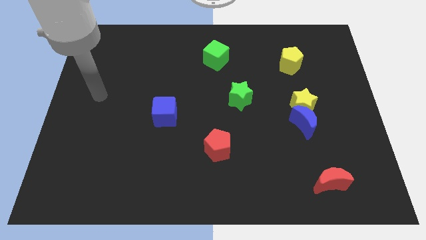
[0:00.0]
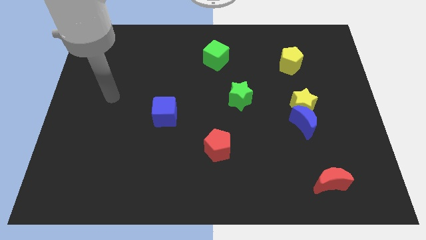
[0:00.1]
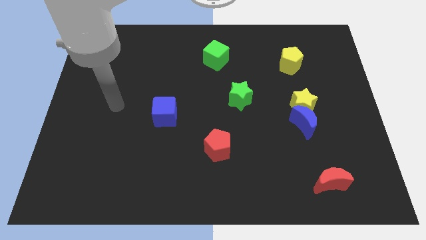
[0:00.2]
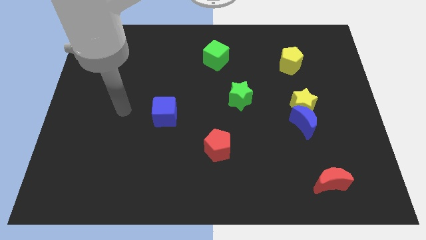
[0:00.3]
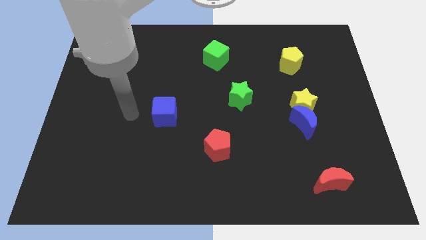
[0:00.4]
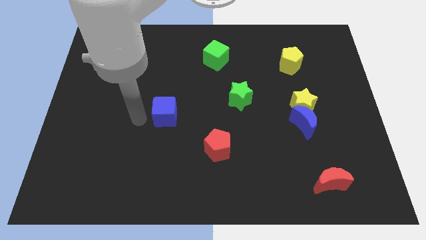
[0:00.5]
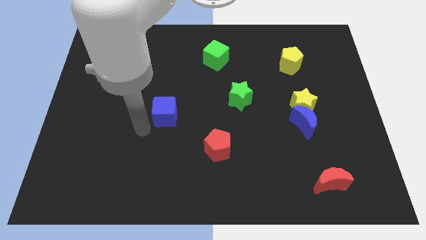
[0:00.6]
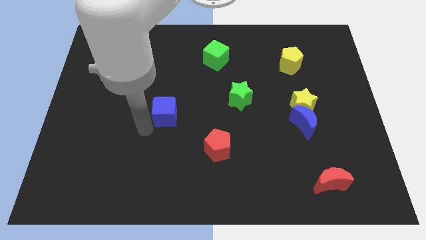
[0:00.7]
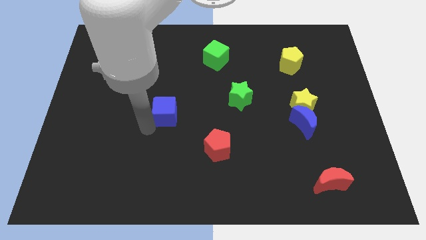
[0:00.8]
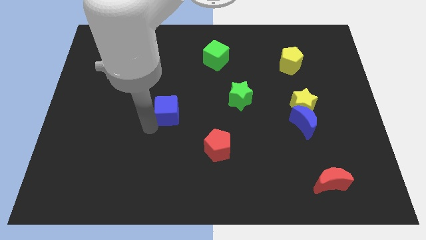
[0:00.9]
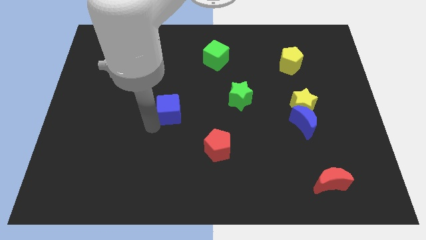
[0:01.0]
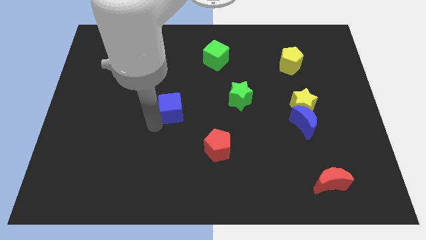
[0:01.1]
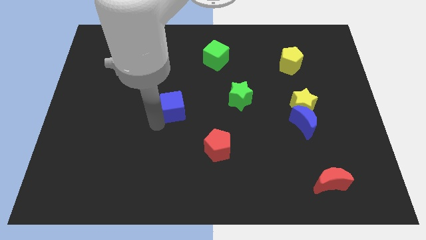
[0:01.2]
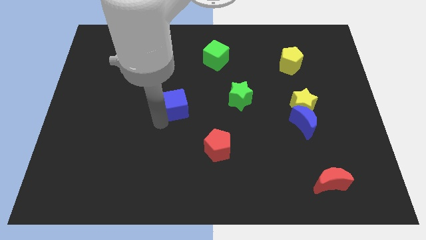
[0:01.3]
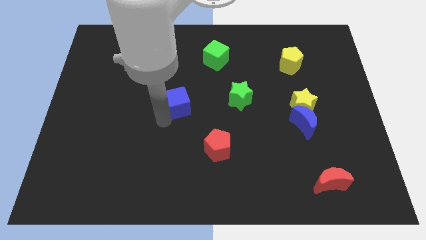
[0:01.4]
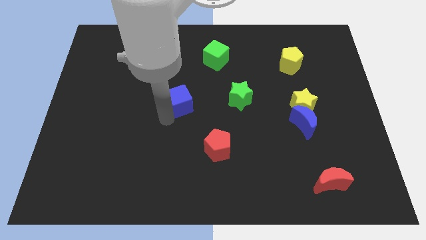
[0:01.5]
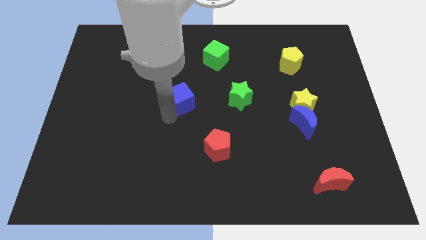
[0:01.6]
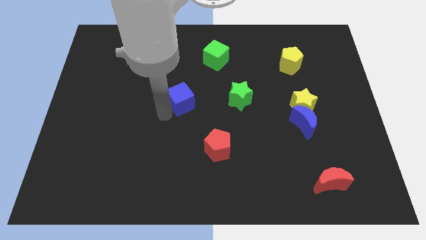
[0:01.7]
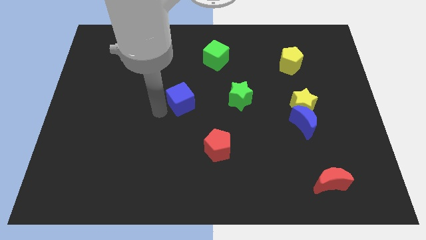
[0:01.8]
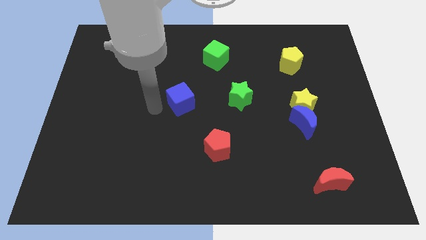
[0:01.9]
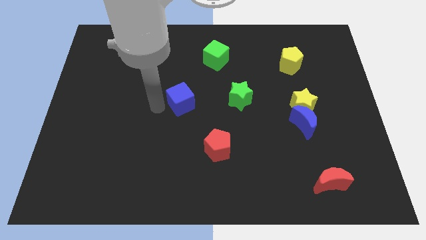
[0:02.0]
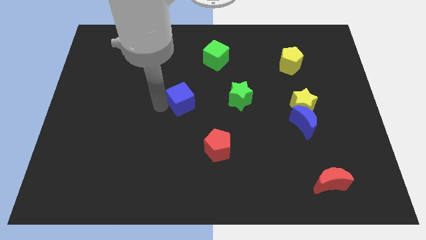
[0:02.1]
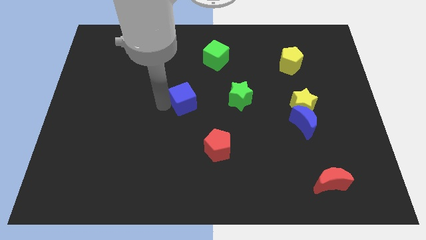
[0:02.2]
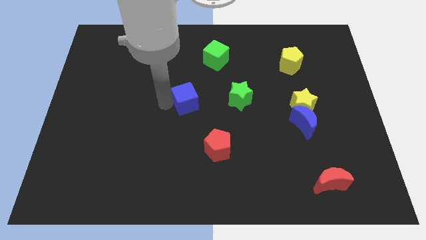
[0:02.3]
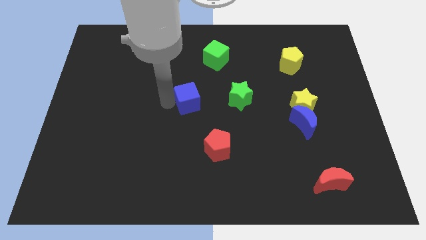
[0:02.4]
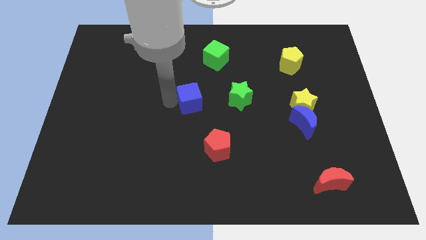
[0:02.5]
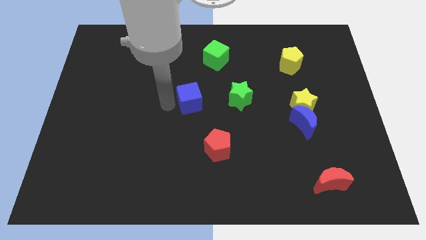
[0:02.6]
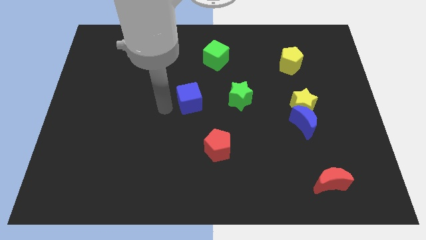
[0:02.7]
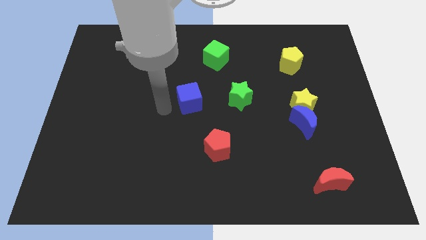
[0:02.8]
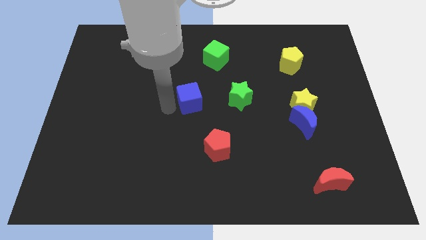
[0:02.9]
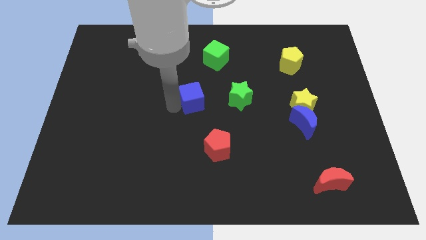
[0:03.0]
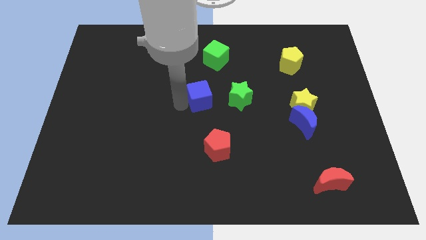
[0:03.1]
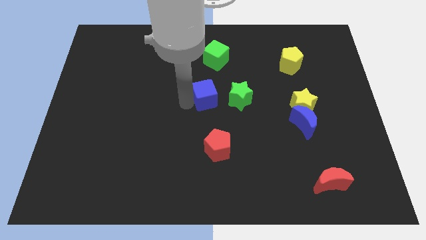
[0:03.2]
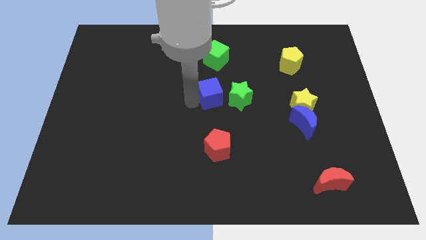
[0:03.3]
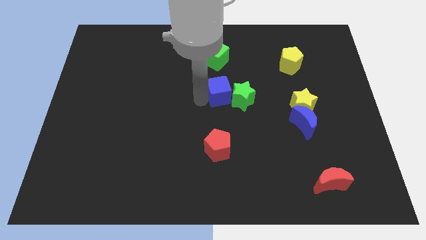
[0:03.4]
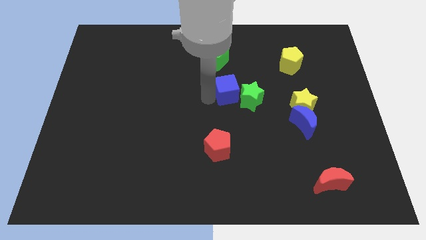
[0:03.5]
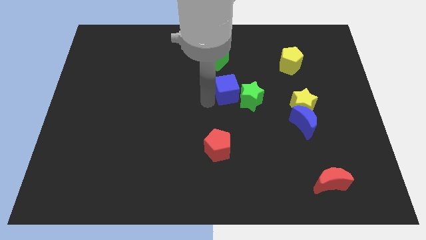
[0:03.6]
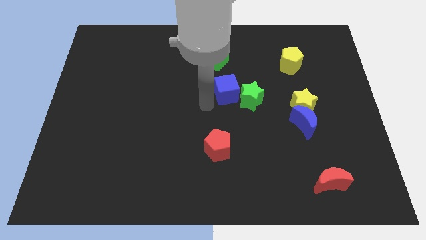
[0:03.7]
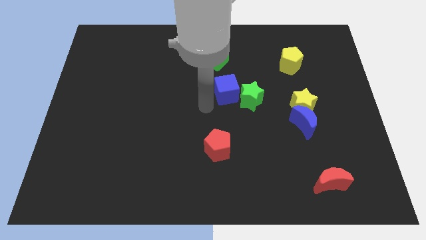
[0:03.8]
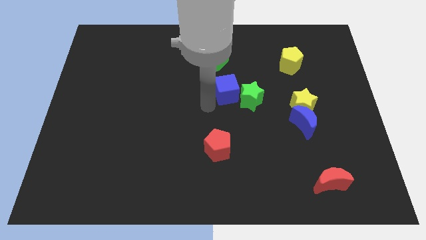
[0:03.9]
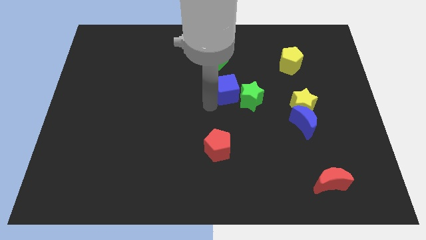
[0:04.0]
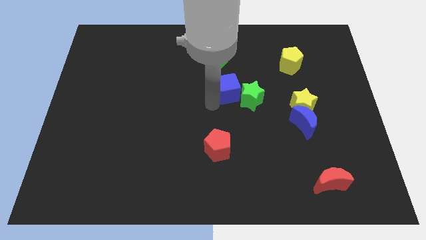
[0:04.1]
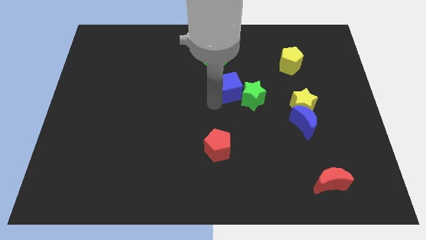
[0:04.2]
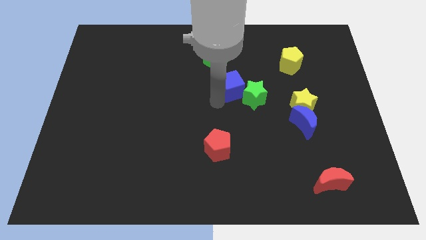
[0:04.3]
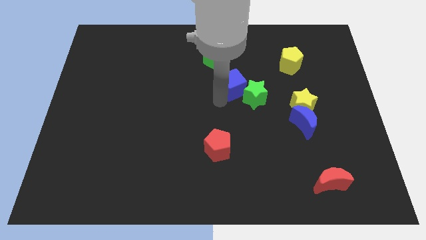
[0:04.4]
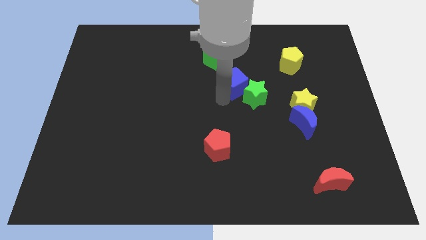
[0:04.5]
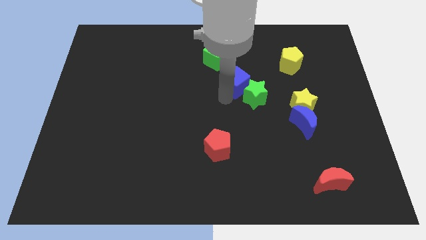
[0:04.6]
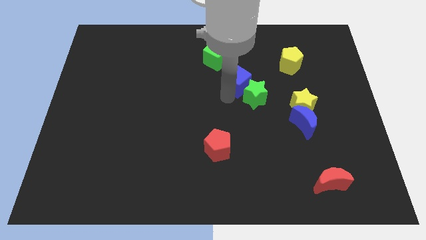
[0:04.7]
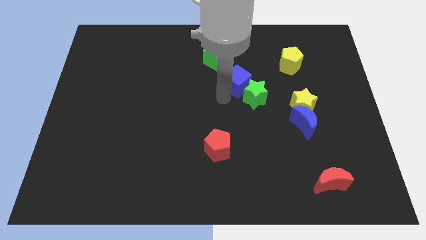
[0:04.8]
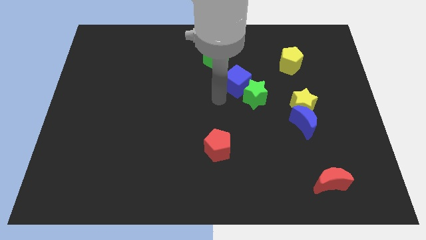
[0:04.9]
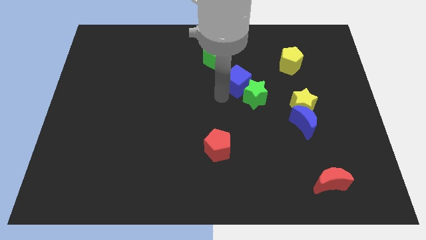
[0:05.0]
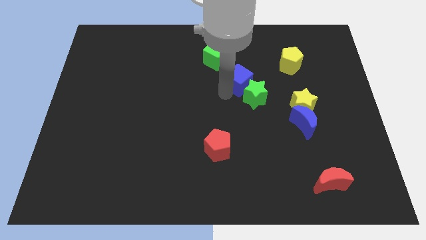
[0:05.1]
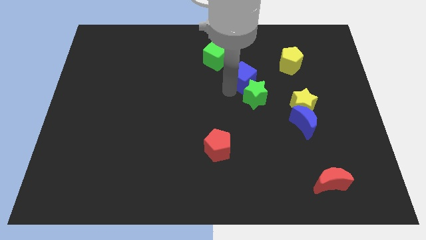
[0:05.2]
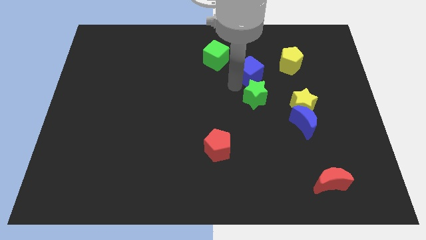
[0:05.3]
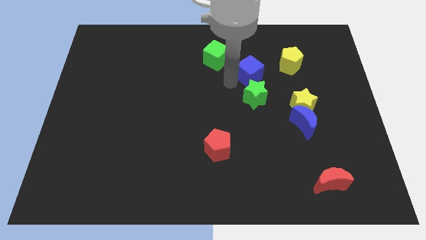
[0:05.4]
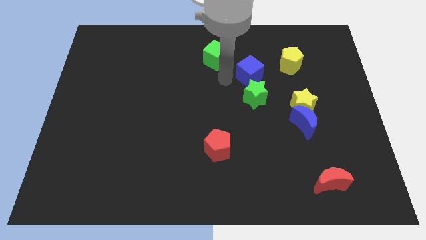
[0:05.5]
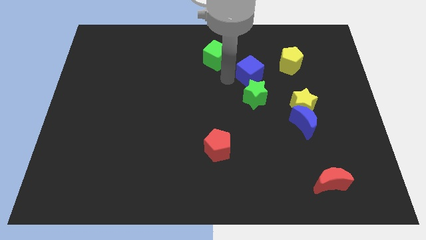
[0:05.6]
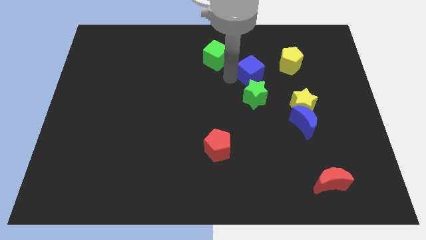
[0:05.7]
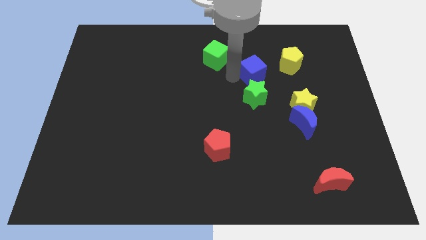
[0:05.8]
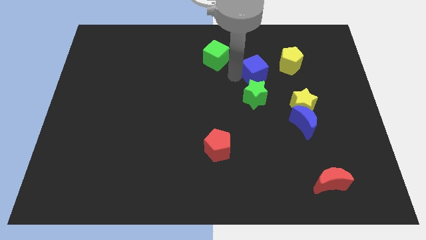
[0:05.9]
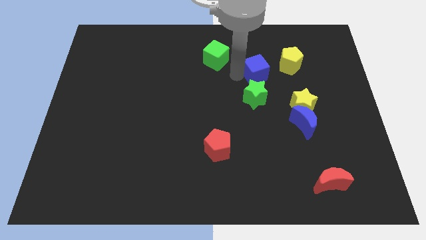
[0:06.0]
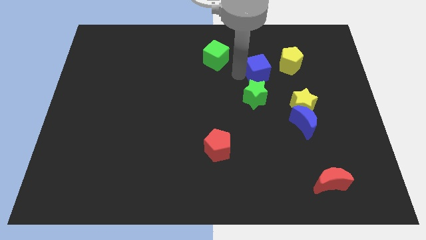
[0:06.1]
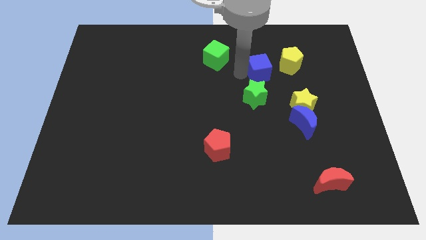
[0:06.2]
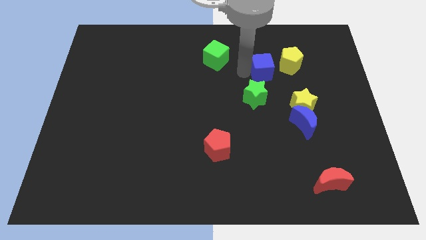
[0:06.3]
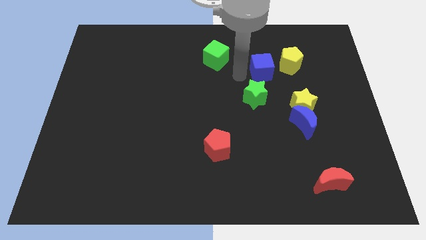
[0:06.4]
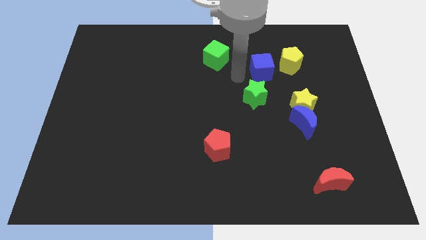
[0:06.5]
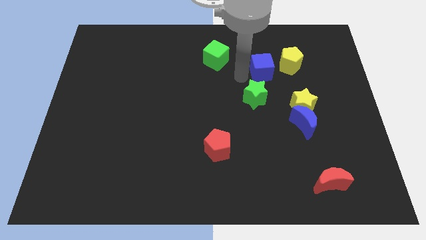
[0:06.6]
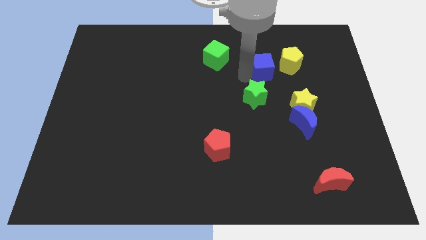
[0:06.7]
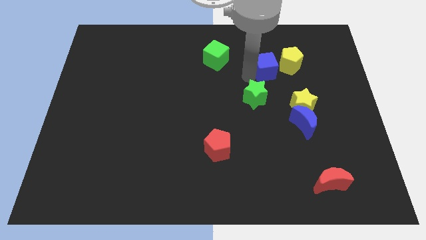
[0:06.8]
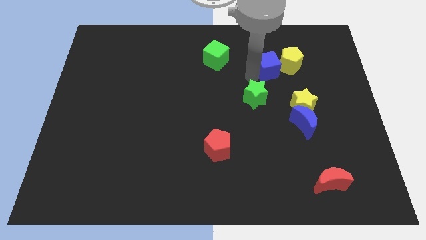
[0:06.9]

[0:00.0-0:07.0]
slide the blue cube to the yellow pentagon

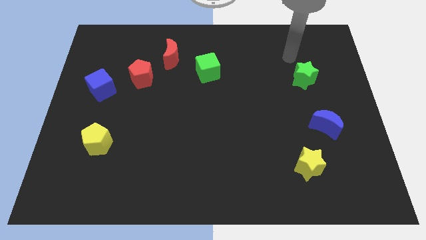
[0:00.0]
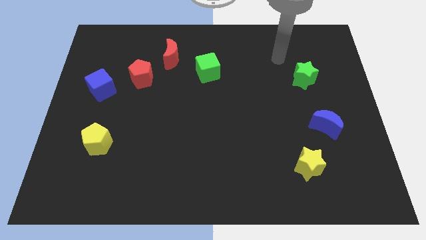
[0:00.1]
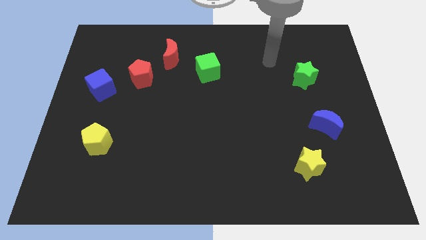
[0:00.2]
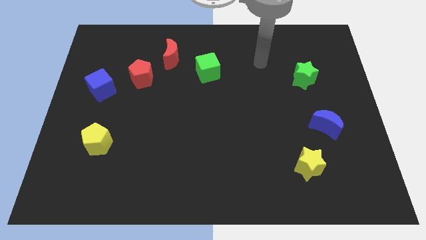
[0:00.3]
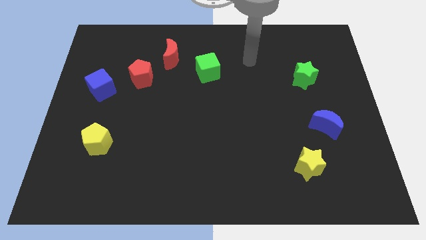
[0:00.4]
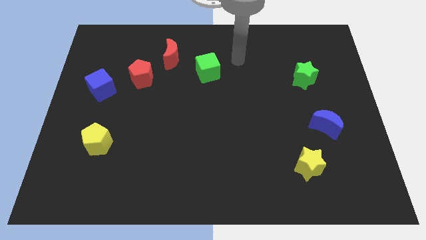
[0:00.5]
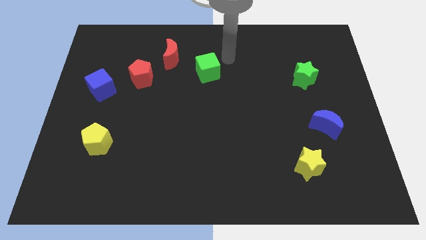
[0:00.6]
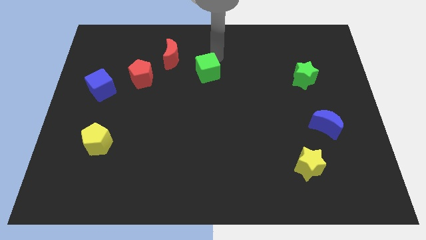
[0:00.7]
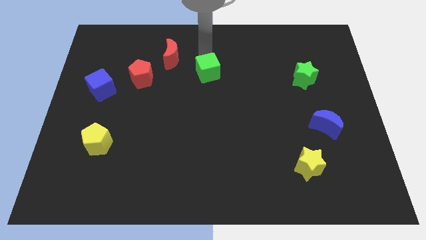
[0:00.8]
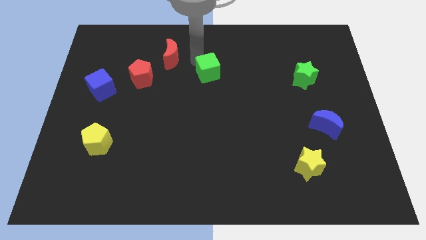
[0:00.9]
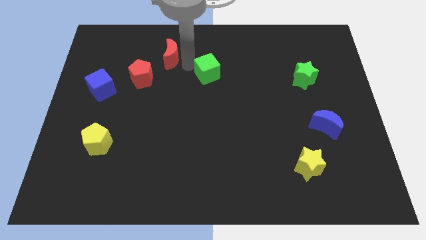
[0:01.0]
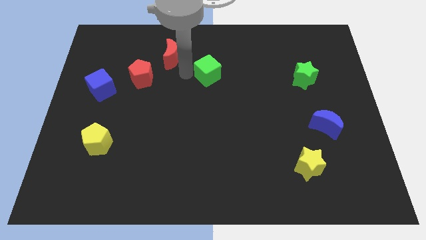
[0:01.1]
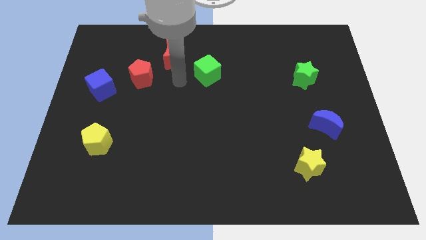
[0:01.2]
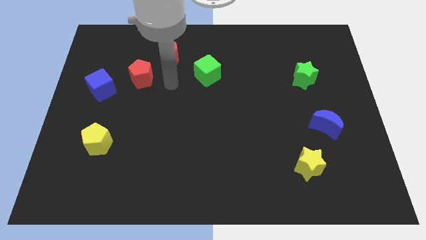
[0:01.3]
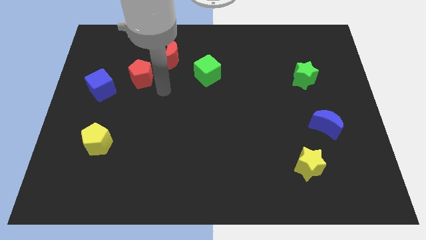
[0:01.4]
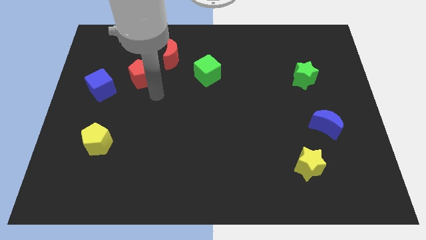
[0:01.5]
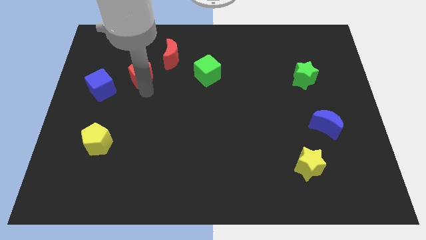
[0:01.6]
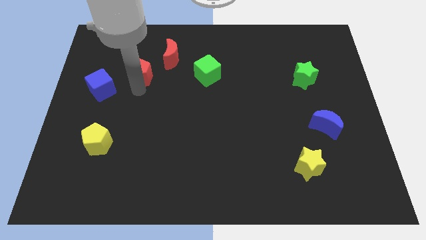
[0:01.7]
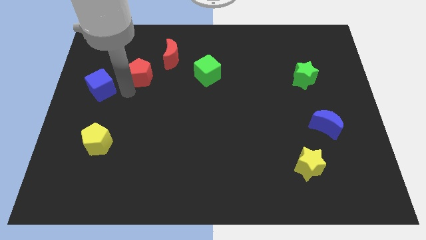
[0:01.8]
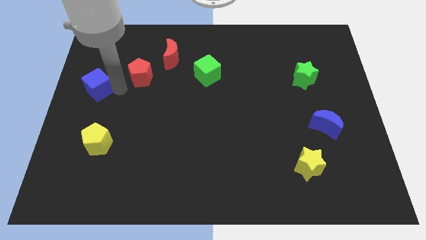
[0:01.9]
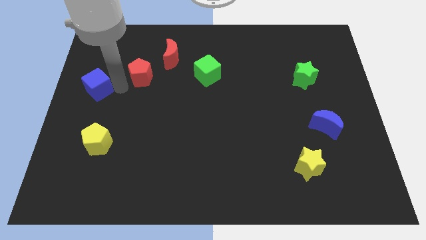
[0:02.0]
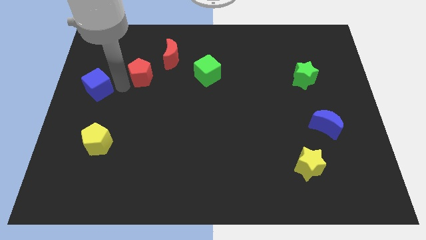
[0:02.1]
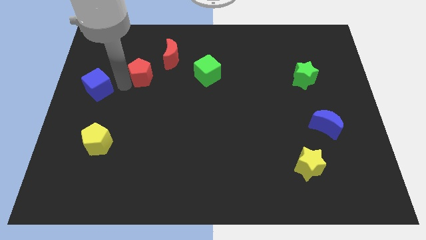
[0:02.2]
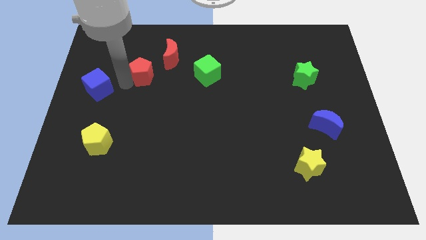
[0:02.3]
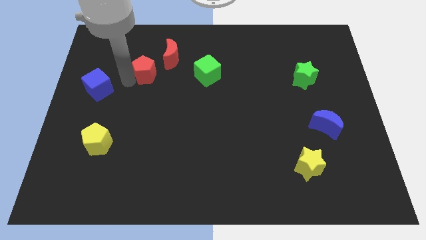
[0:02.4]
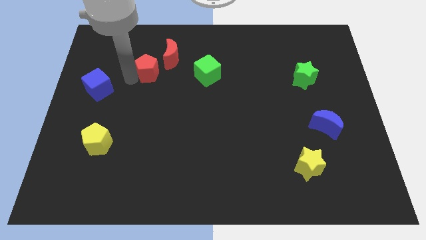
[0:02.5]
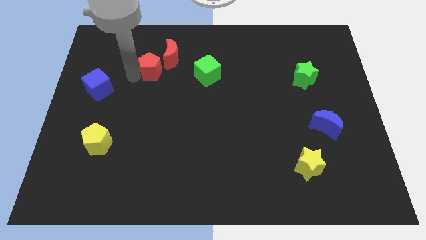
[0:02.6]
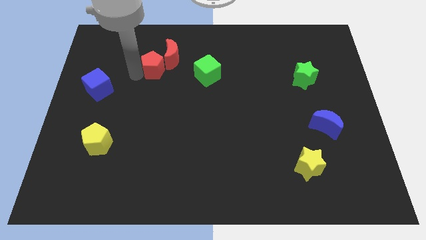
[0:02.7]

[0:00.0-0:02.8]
push the red pentagon next to the red moon
